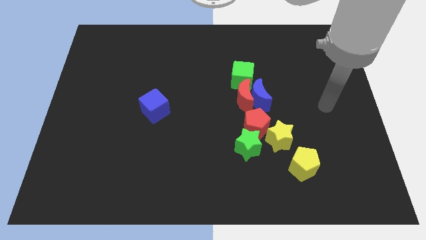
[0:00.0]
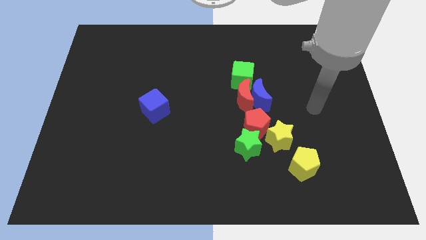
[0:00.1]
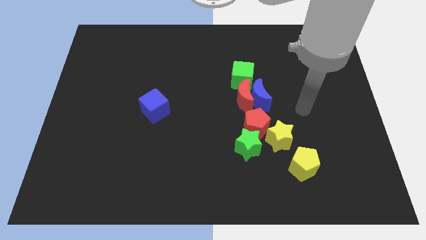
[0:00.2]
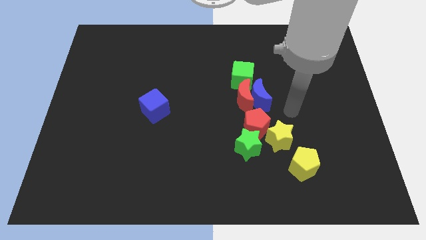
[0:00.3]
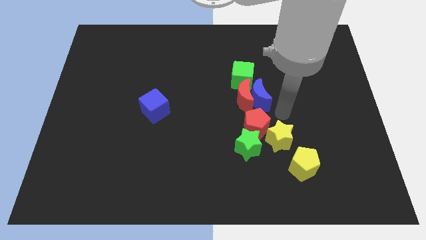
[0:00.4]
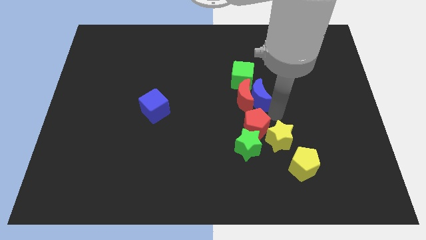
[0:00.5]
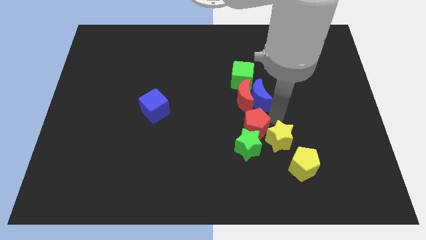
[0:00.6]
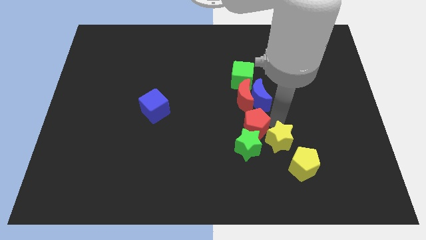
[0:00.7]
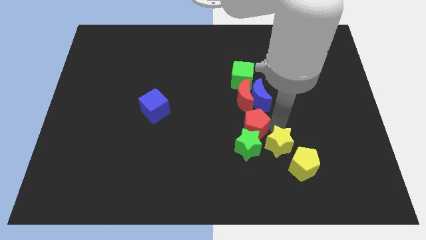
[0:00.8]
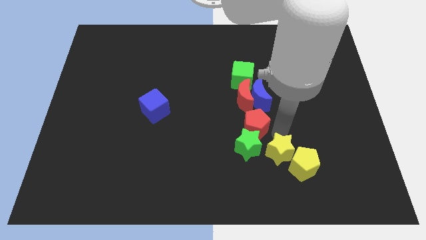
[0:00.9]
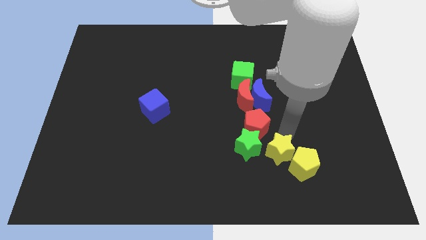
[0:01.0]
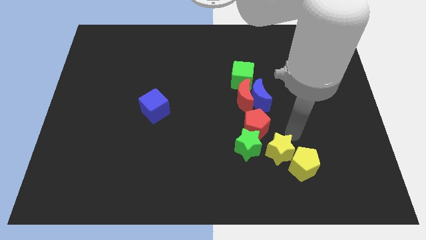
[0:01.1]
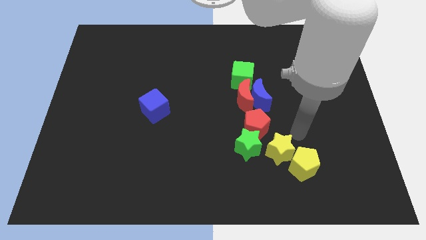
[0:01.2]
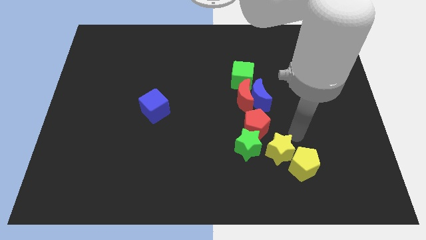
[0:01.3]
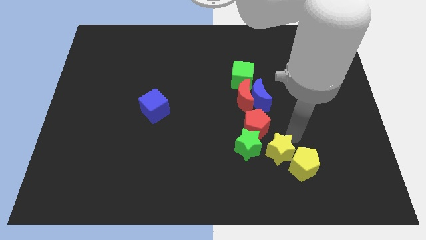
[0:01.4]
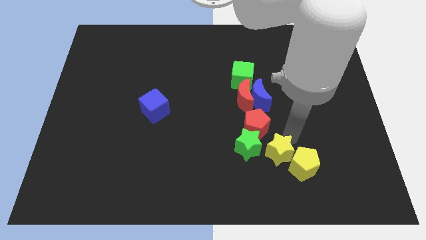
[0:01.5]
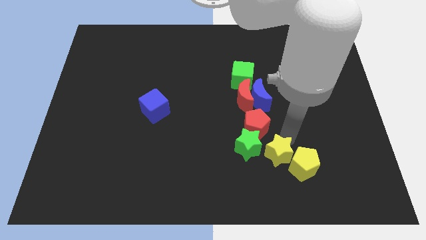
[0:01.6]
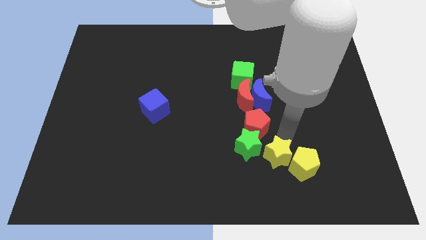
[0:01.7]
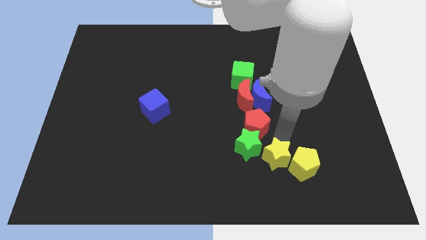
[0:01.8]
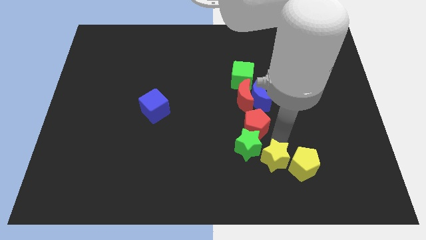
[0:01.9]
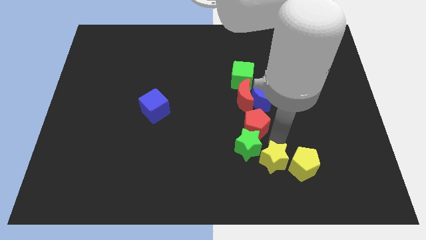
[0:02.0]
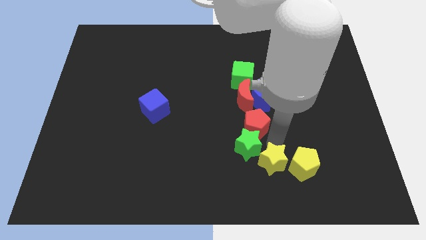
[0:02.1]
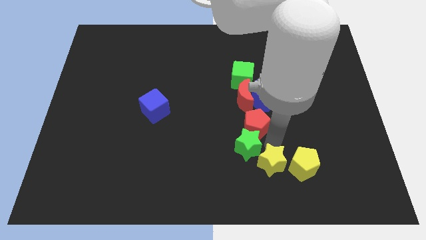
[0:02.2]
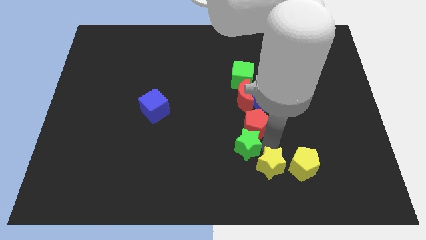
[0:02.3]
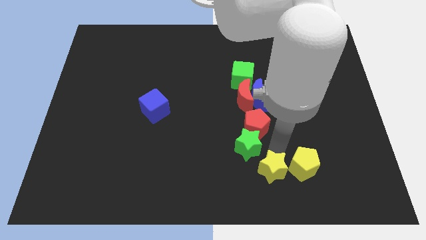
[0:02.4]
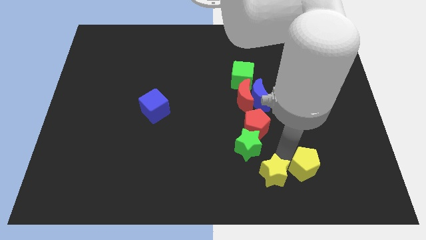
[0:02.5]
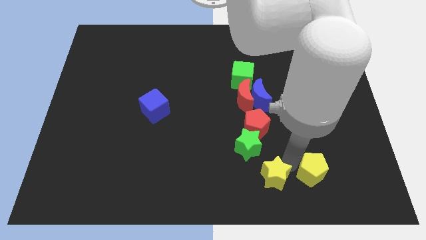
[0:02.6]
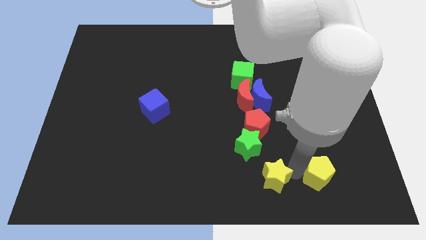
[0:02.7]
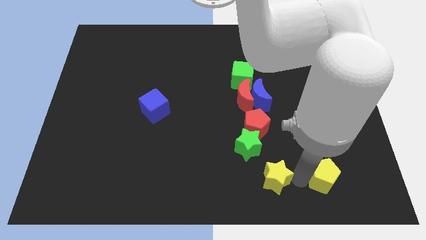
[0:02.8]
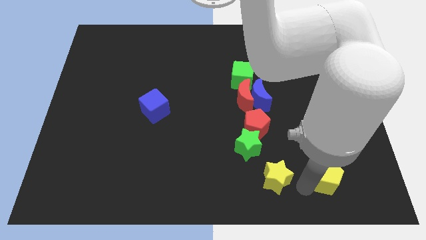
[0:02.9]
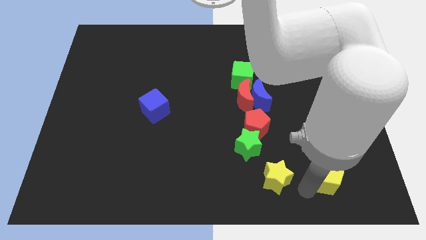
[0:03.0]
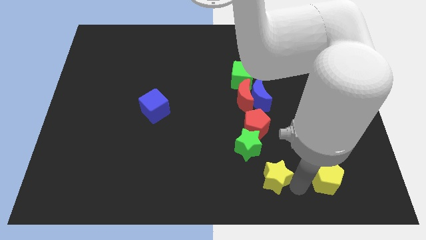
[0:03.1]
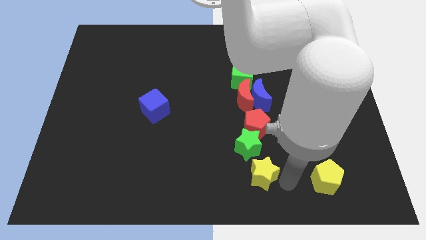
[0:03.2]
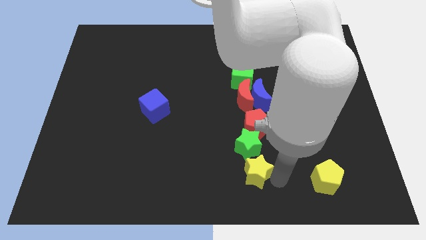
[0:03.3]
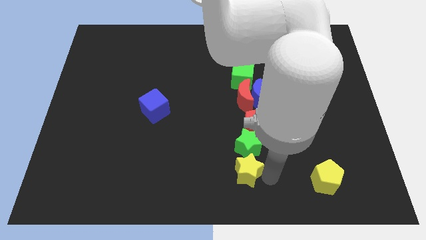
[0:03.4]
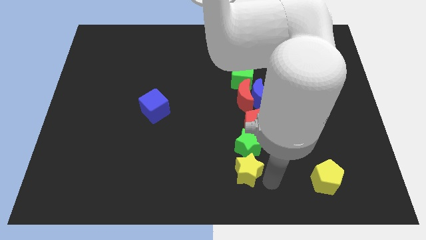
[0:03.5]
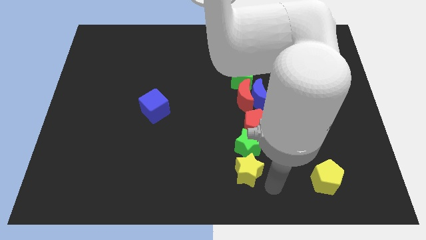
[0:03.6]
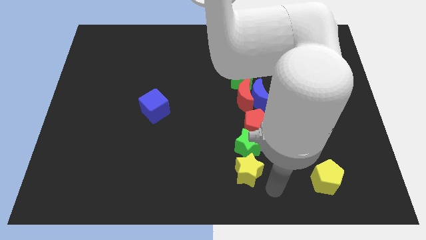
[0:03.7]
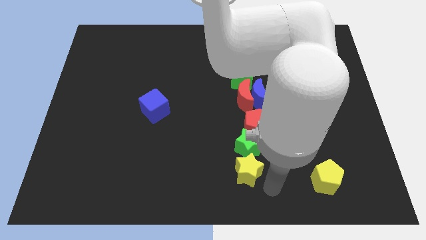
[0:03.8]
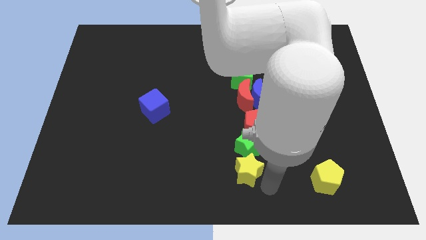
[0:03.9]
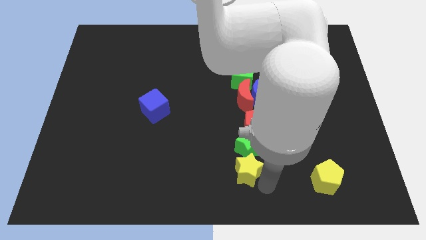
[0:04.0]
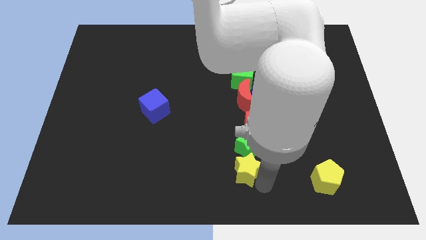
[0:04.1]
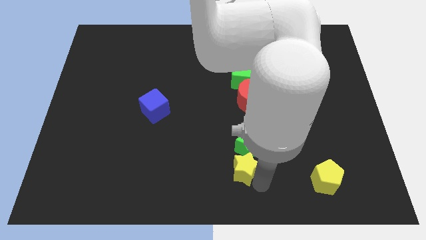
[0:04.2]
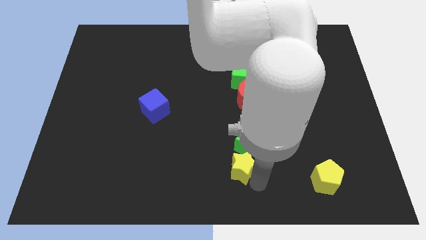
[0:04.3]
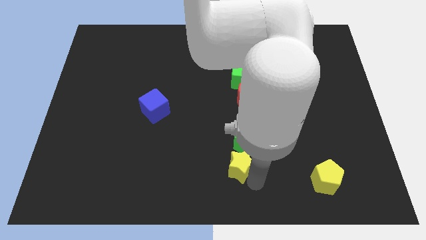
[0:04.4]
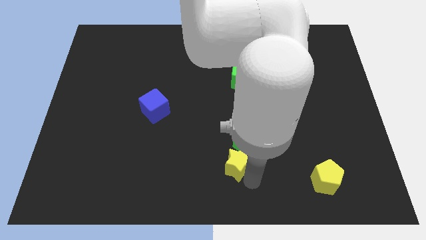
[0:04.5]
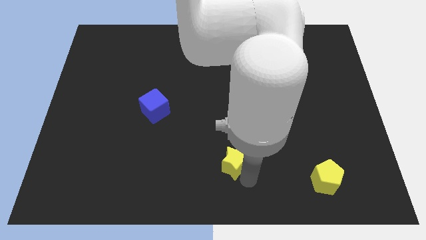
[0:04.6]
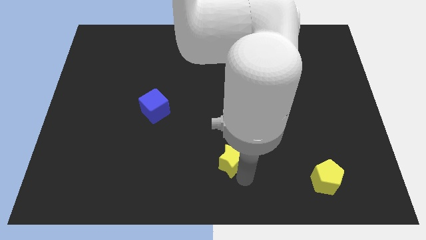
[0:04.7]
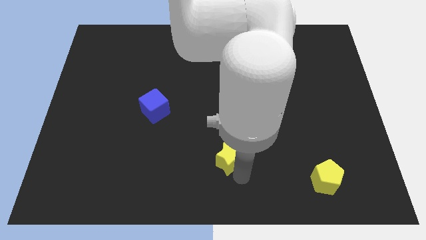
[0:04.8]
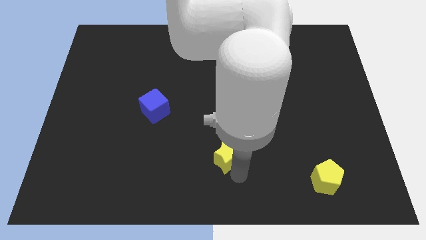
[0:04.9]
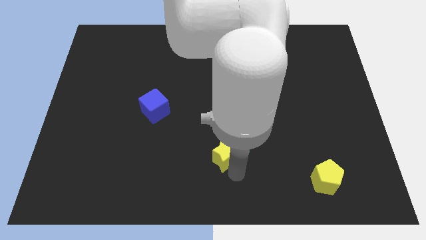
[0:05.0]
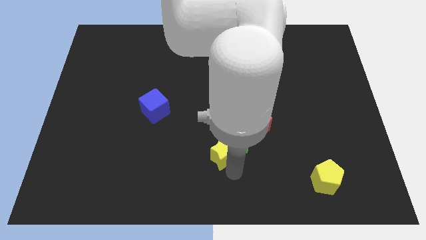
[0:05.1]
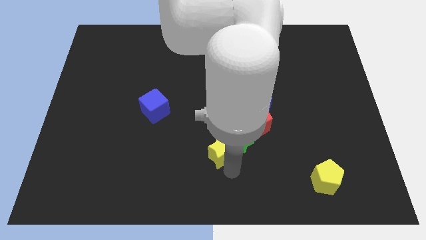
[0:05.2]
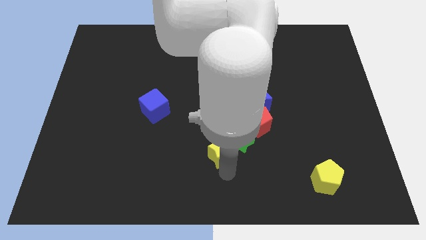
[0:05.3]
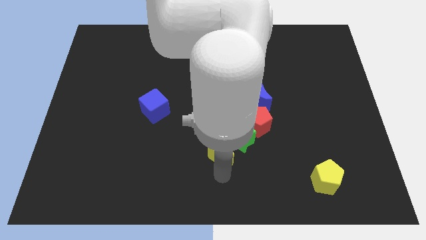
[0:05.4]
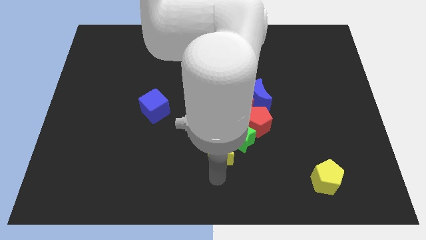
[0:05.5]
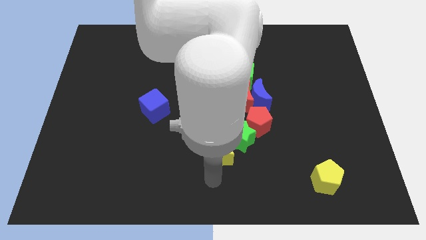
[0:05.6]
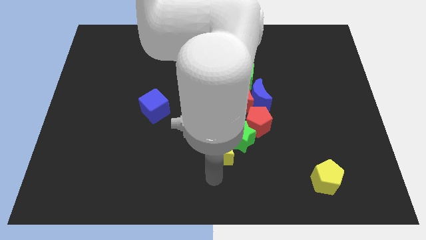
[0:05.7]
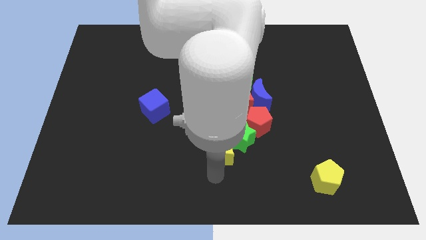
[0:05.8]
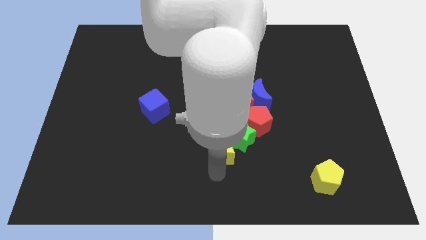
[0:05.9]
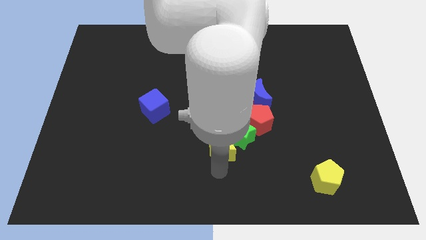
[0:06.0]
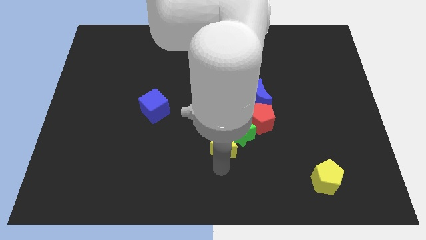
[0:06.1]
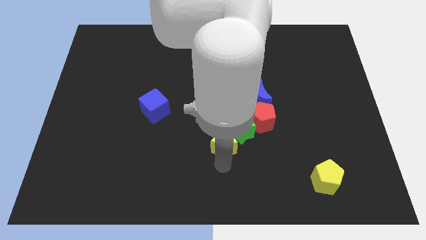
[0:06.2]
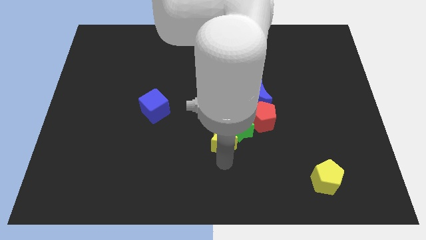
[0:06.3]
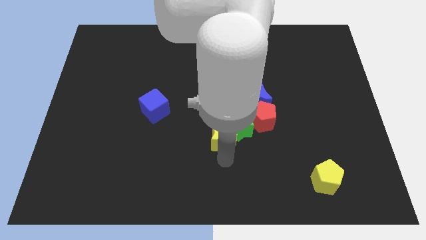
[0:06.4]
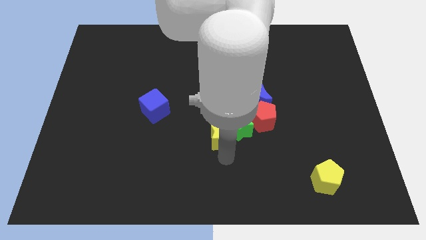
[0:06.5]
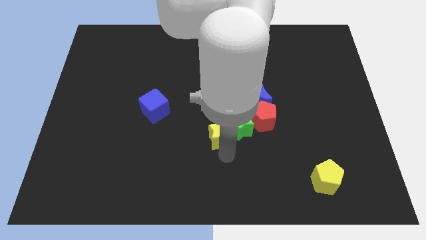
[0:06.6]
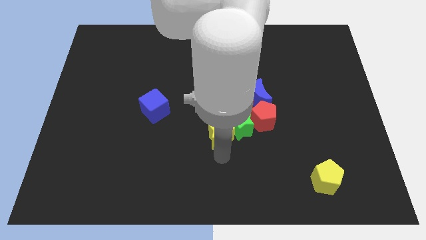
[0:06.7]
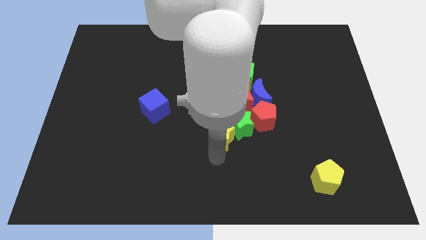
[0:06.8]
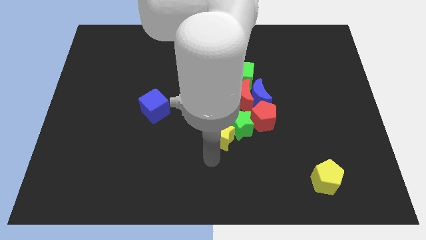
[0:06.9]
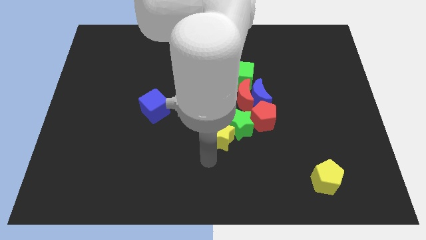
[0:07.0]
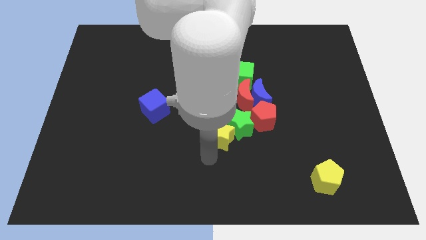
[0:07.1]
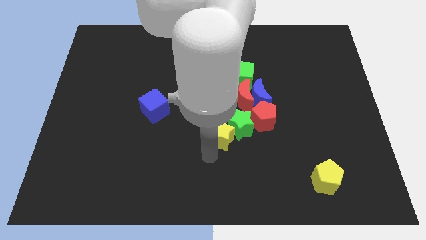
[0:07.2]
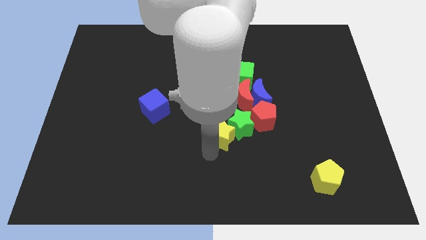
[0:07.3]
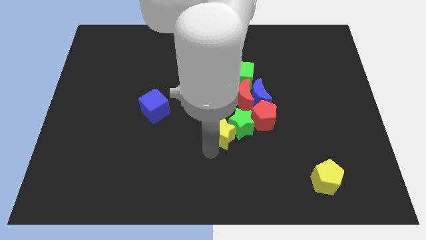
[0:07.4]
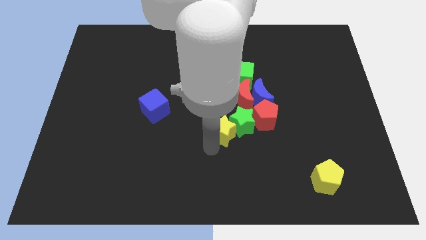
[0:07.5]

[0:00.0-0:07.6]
move the yellow star diagonally up and to the left a little bit

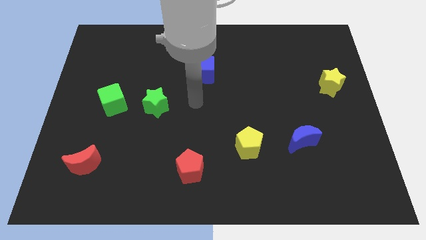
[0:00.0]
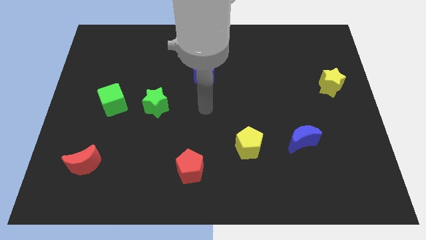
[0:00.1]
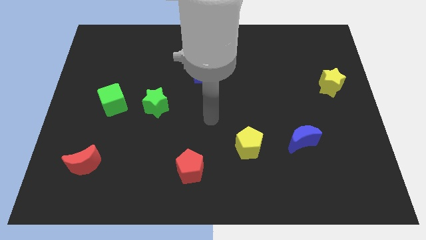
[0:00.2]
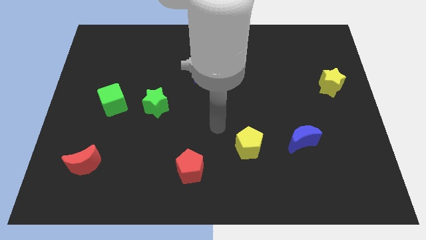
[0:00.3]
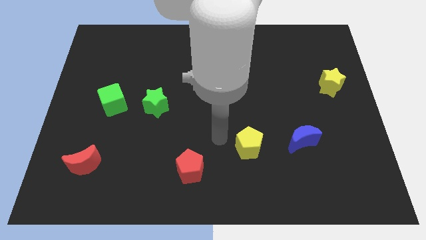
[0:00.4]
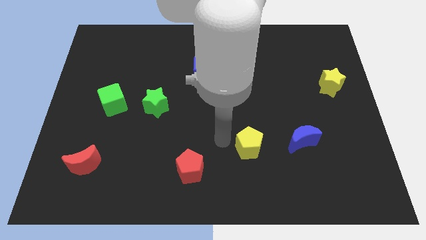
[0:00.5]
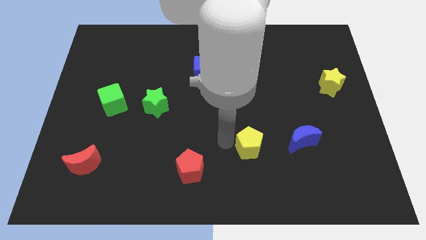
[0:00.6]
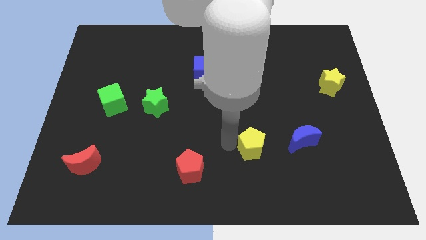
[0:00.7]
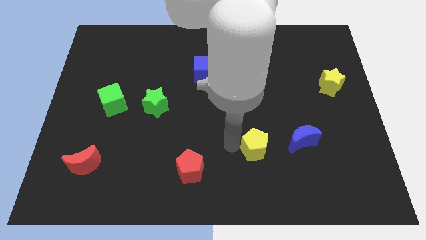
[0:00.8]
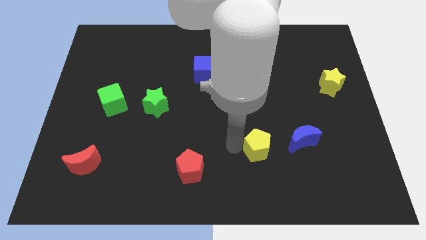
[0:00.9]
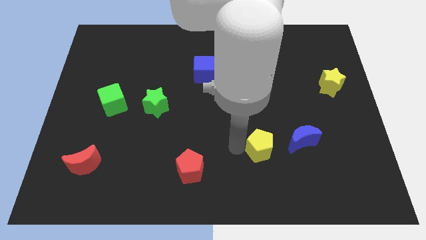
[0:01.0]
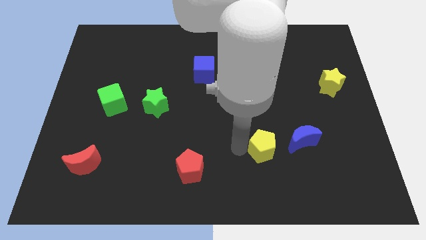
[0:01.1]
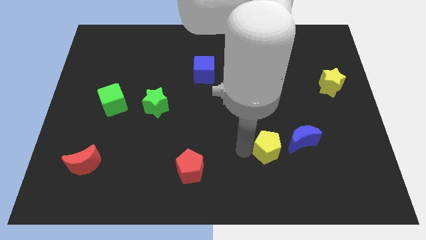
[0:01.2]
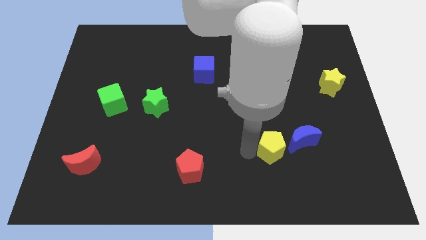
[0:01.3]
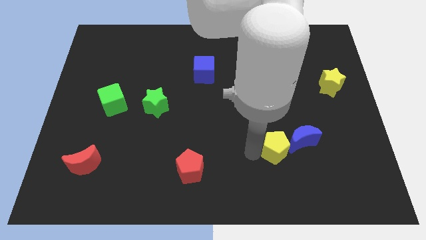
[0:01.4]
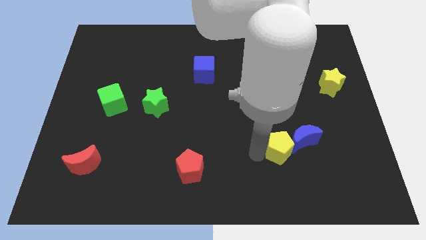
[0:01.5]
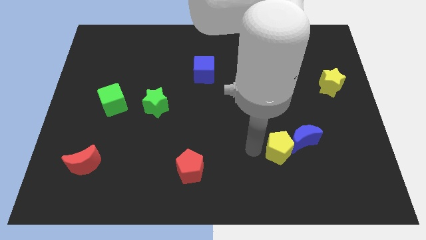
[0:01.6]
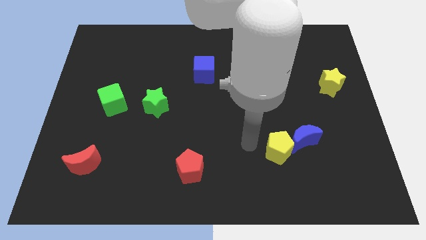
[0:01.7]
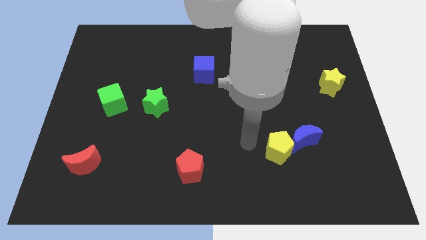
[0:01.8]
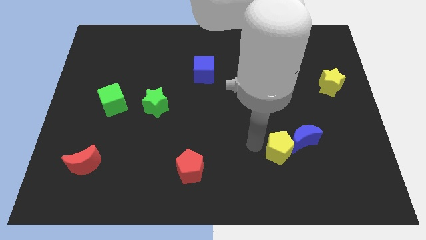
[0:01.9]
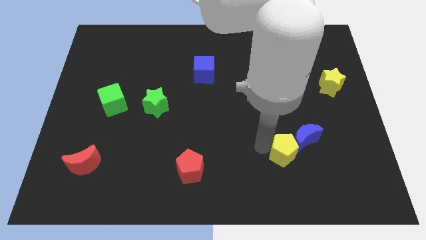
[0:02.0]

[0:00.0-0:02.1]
slightly move the yellow pentagon to the right
